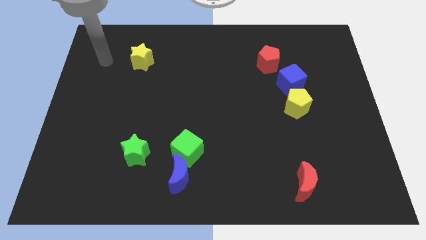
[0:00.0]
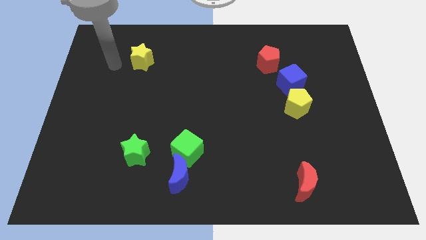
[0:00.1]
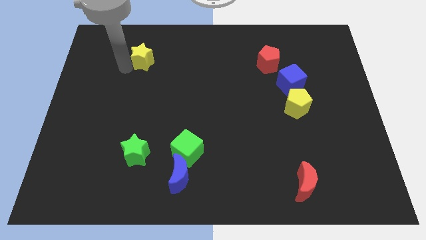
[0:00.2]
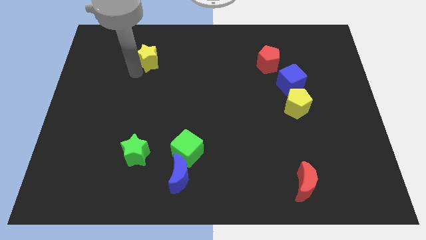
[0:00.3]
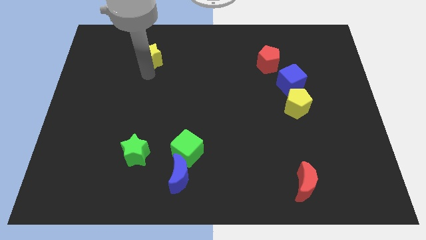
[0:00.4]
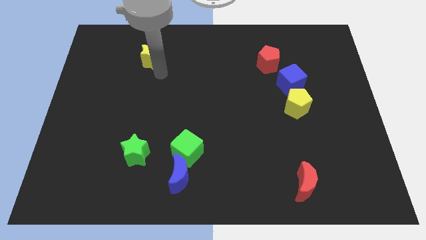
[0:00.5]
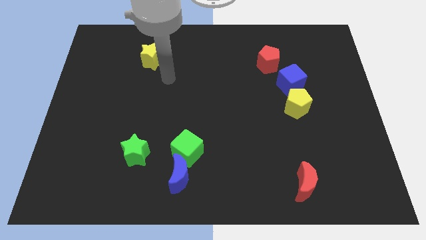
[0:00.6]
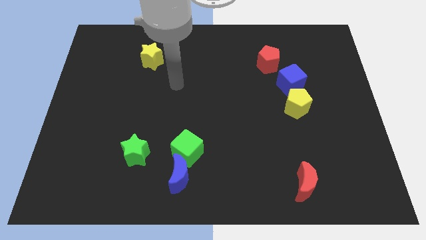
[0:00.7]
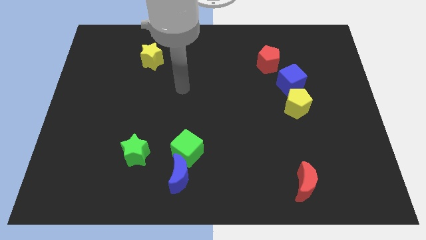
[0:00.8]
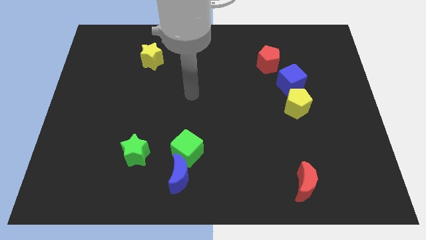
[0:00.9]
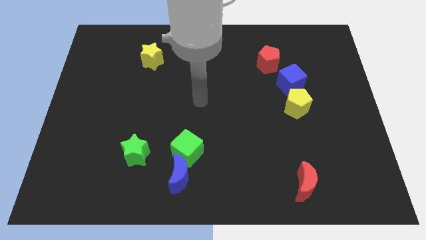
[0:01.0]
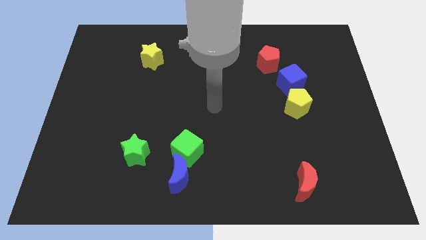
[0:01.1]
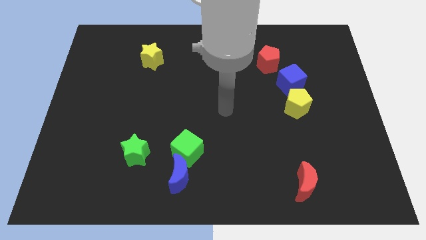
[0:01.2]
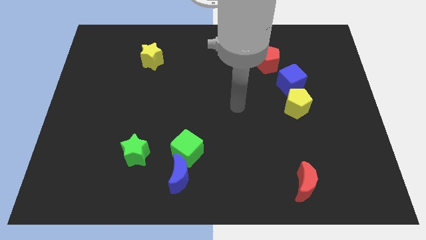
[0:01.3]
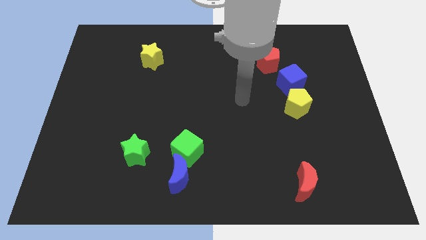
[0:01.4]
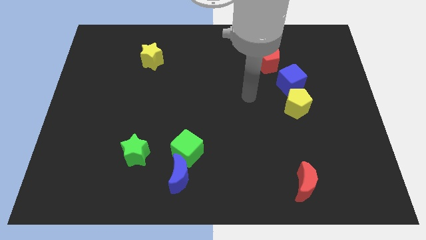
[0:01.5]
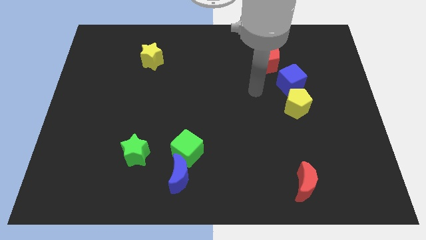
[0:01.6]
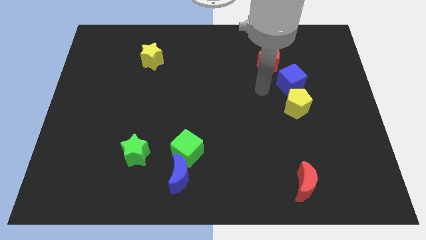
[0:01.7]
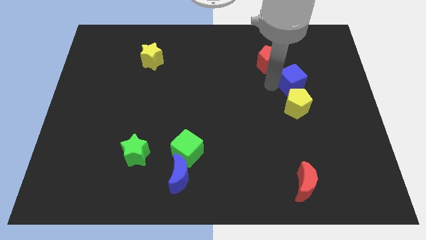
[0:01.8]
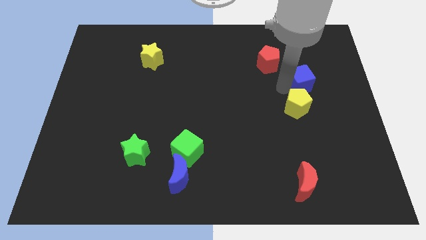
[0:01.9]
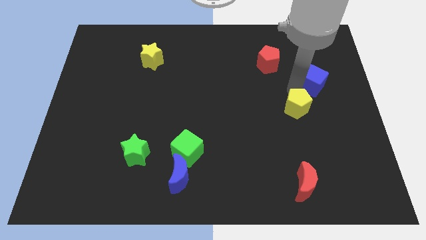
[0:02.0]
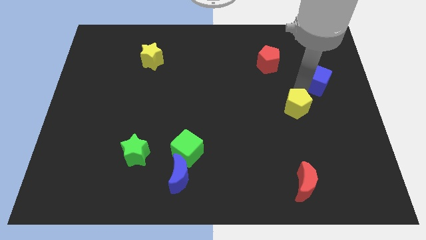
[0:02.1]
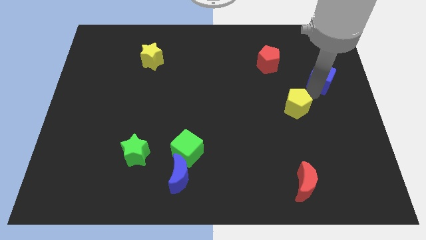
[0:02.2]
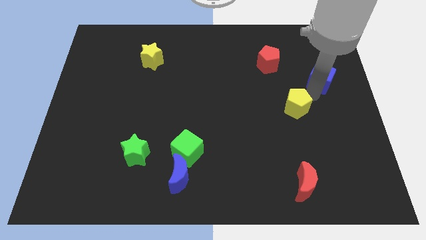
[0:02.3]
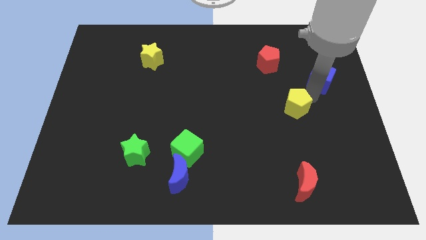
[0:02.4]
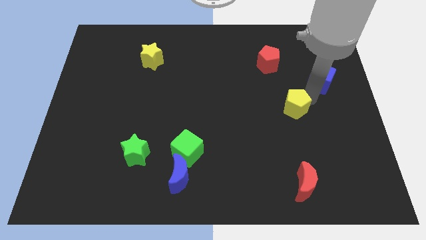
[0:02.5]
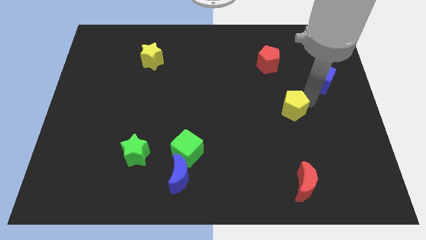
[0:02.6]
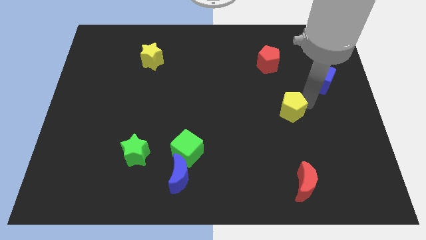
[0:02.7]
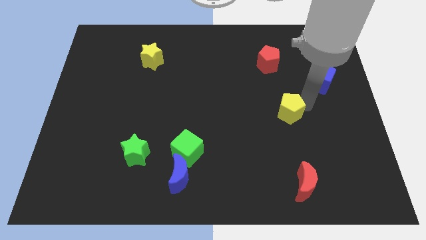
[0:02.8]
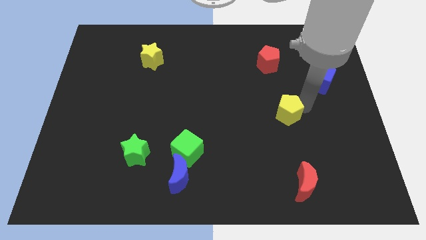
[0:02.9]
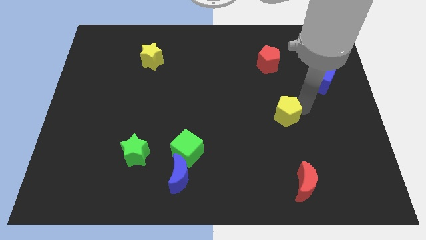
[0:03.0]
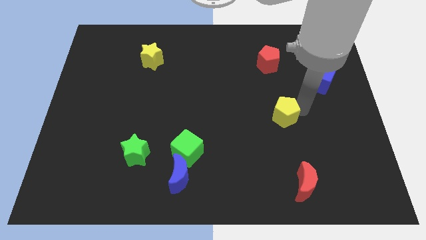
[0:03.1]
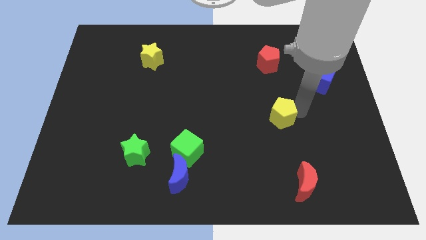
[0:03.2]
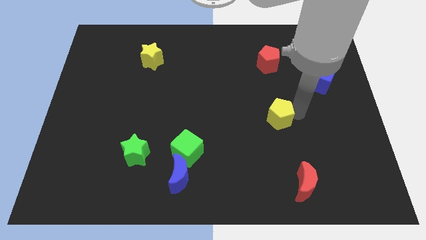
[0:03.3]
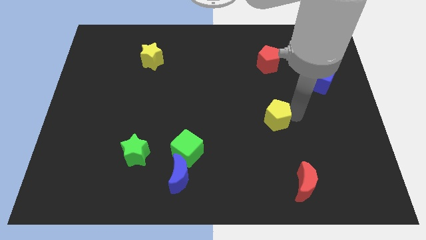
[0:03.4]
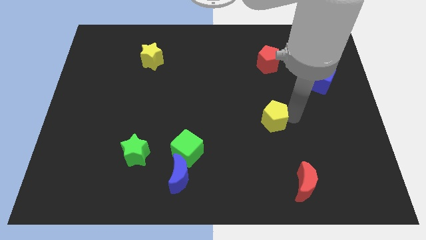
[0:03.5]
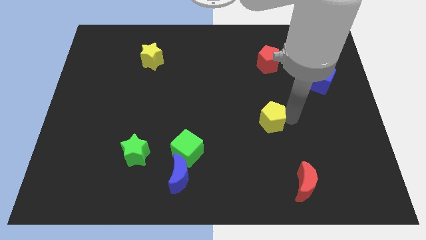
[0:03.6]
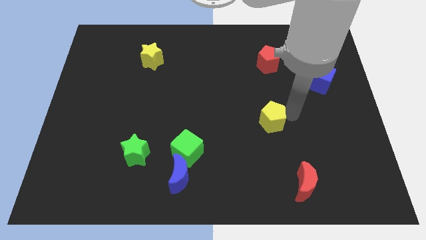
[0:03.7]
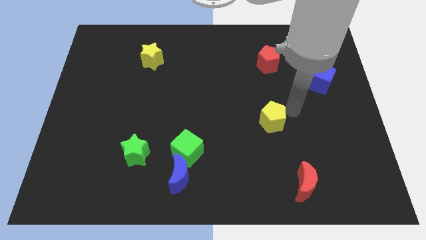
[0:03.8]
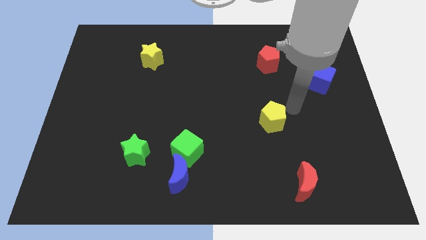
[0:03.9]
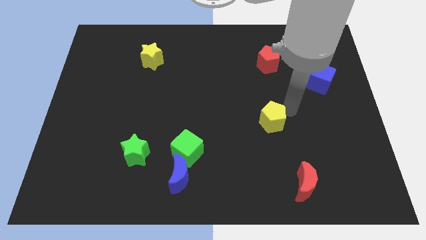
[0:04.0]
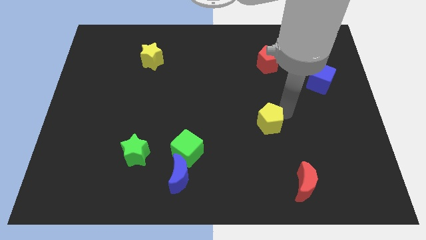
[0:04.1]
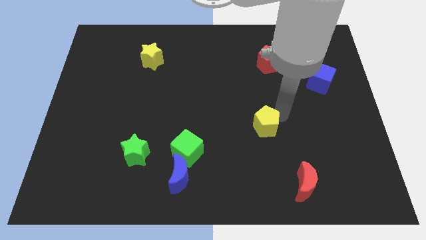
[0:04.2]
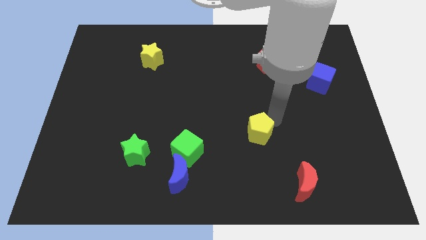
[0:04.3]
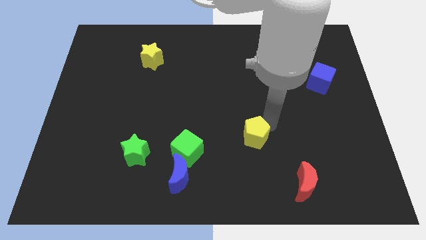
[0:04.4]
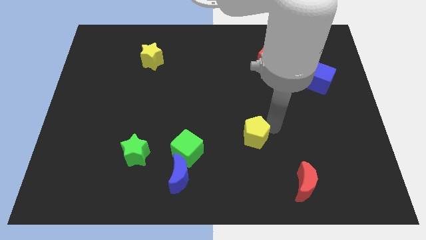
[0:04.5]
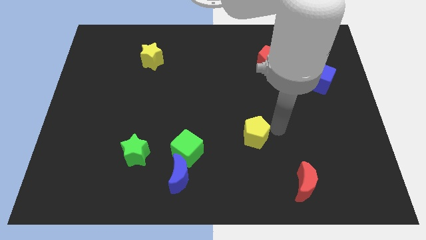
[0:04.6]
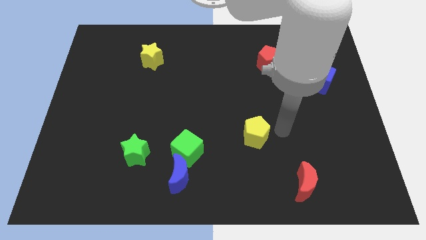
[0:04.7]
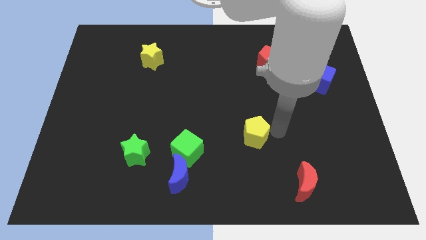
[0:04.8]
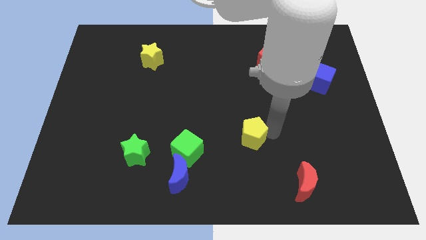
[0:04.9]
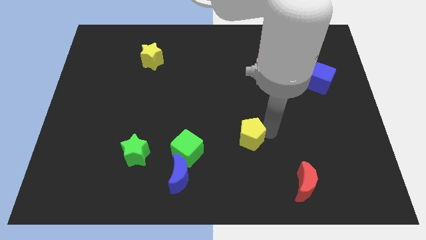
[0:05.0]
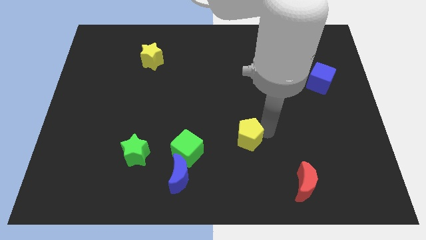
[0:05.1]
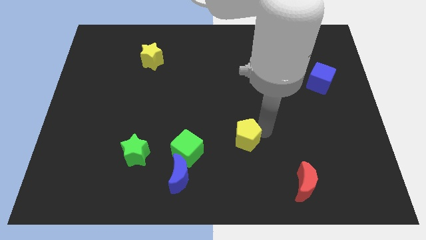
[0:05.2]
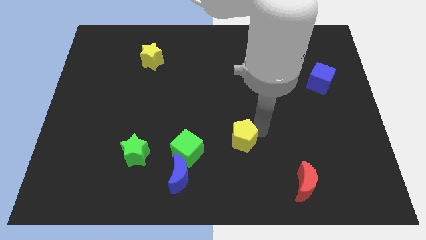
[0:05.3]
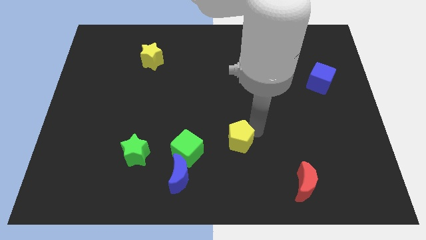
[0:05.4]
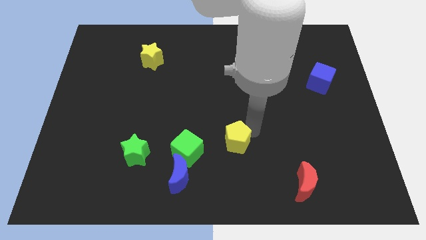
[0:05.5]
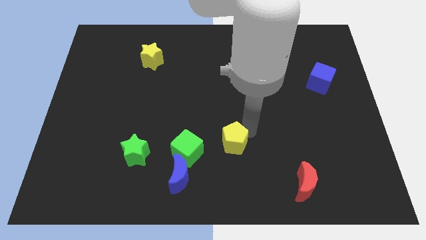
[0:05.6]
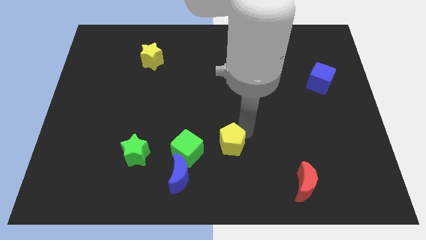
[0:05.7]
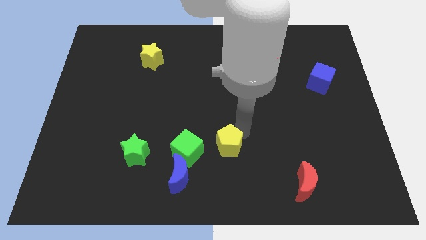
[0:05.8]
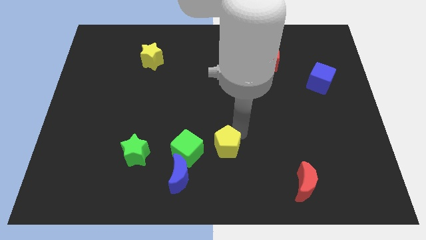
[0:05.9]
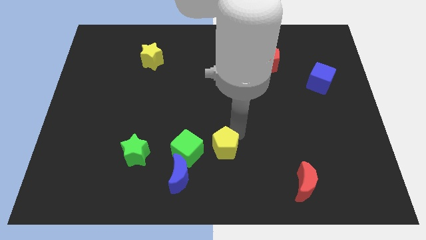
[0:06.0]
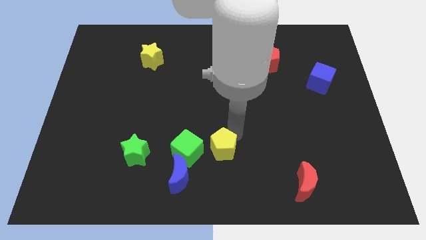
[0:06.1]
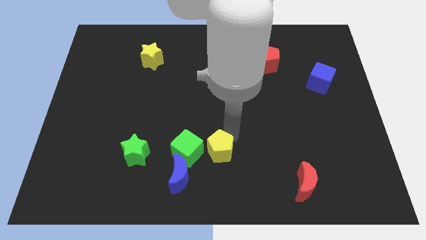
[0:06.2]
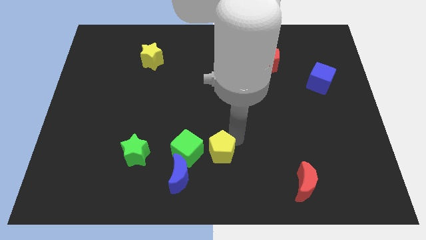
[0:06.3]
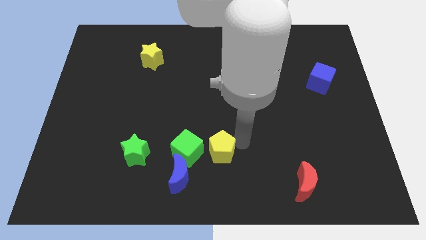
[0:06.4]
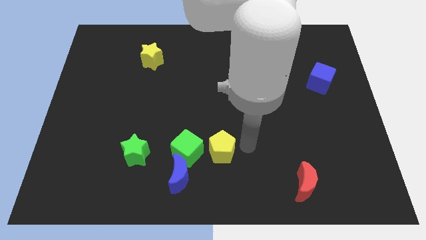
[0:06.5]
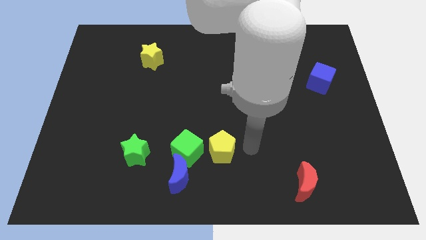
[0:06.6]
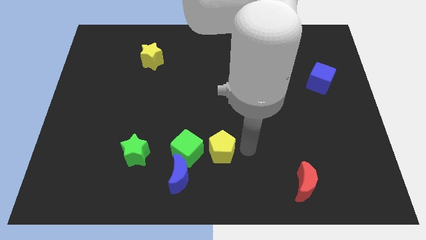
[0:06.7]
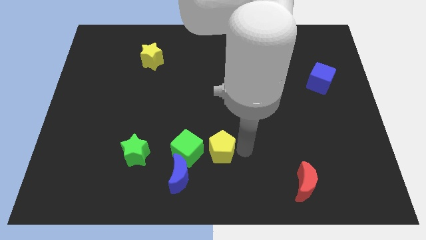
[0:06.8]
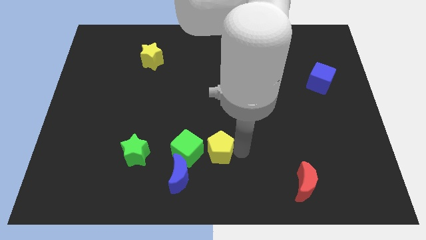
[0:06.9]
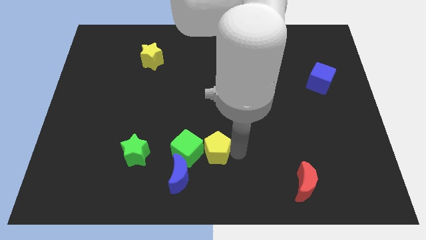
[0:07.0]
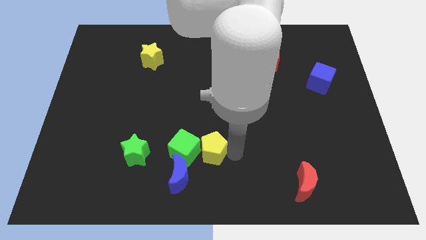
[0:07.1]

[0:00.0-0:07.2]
push the yellow pentagon to the right of the green star
